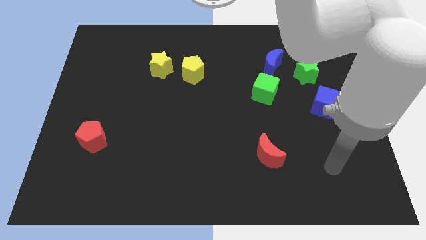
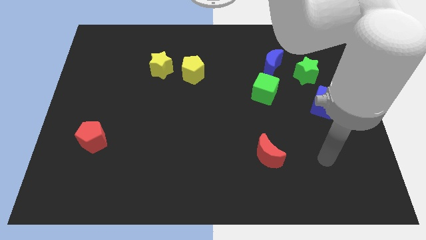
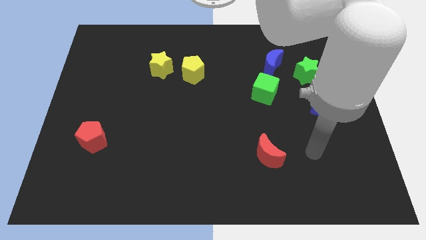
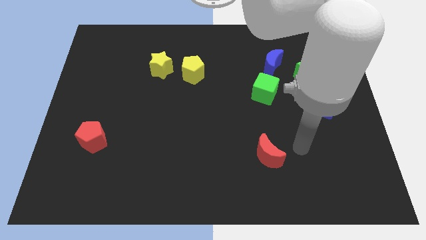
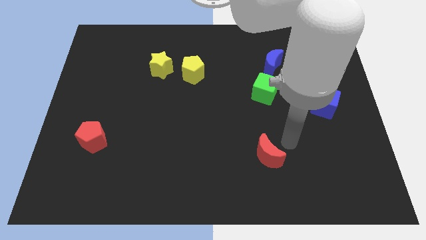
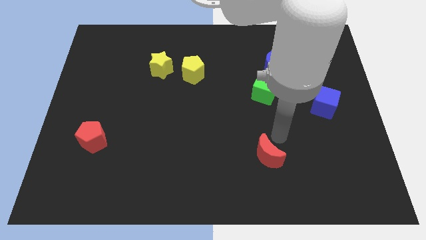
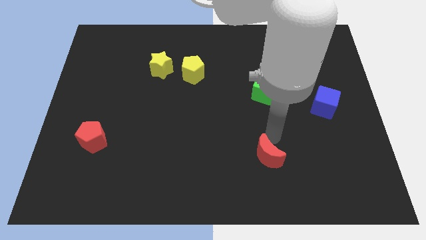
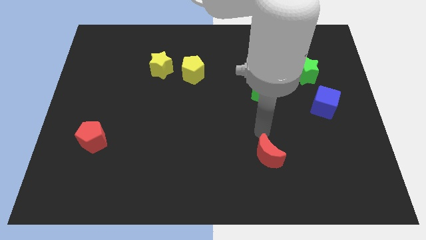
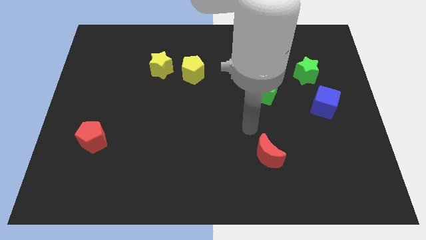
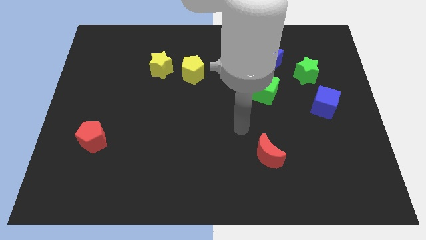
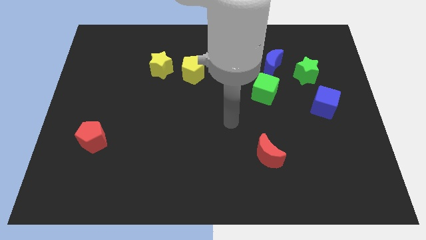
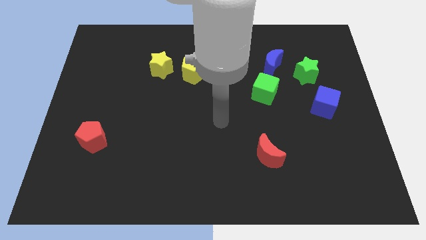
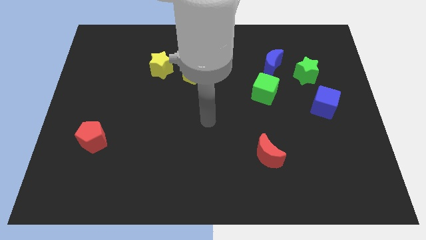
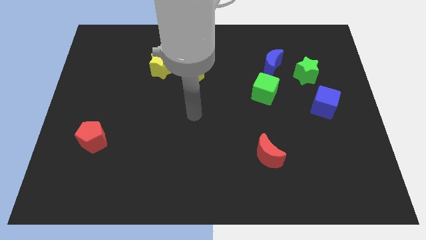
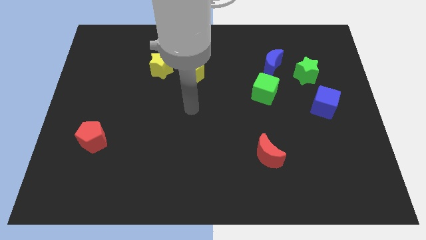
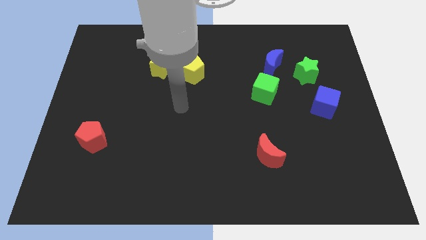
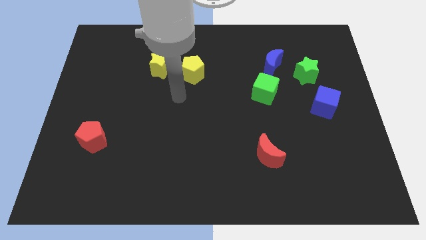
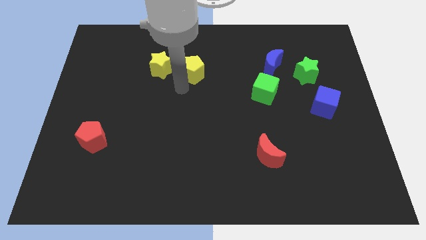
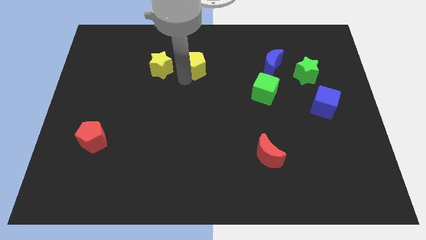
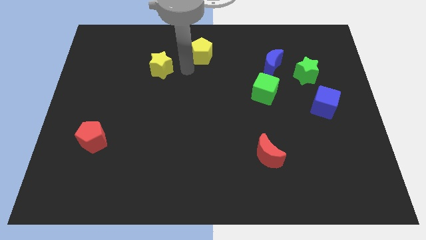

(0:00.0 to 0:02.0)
pull the yellow star apart from the yellow pentagon

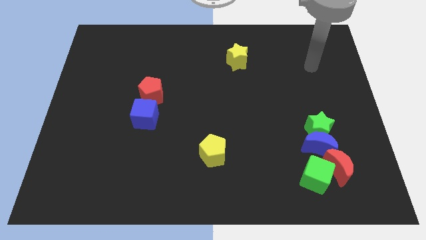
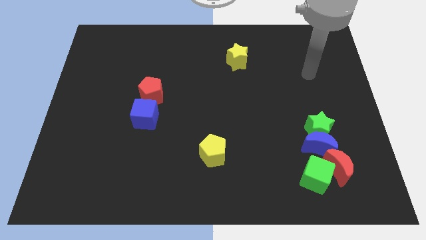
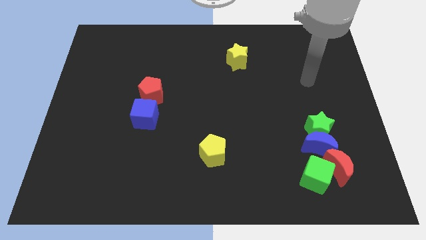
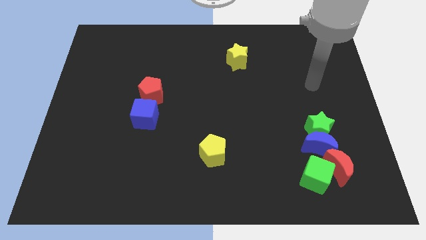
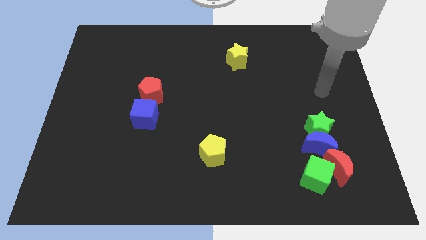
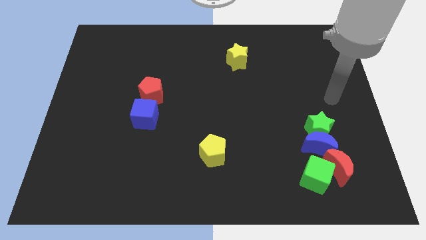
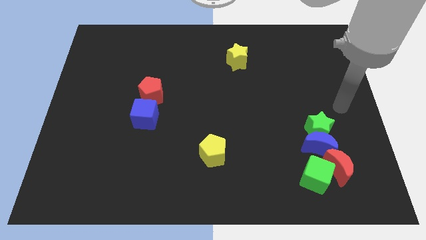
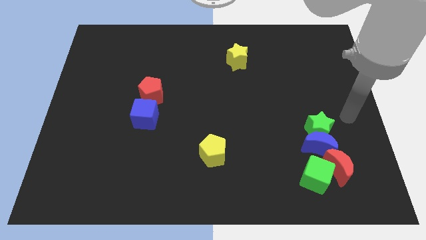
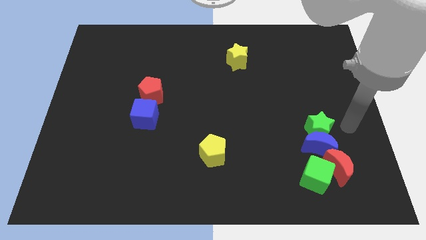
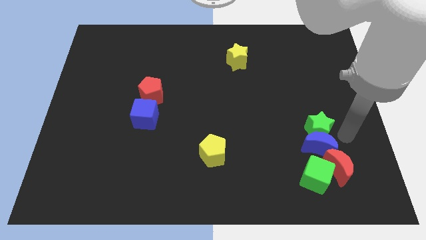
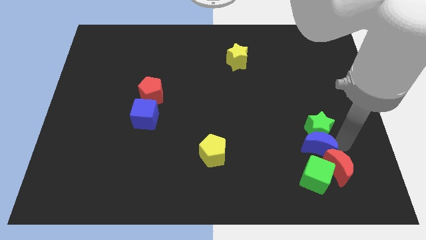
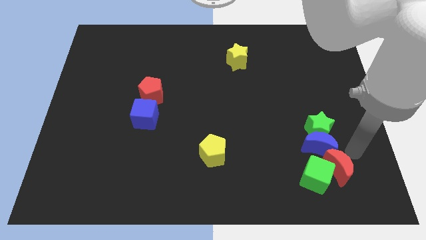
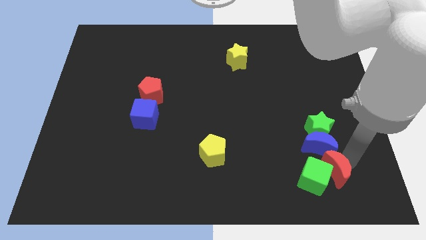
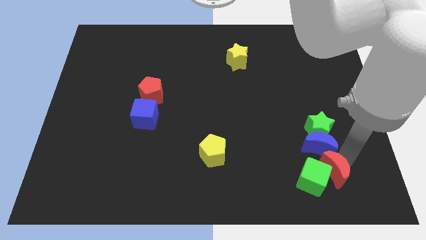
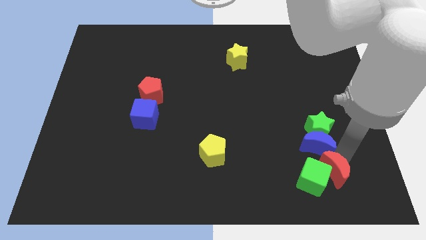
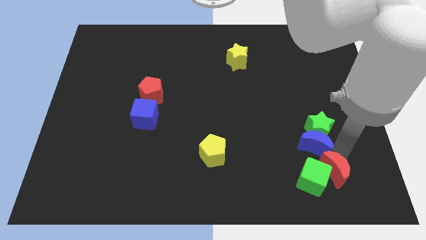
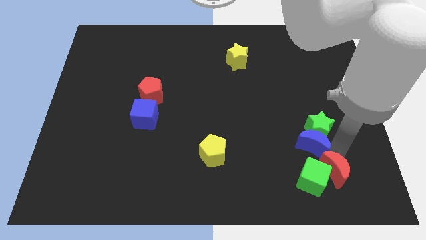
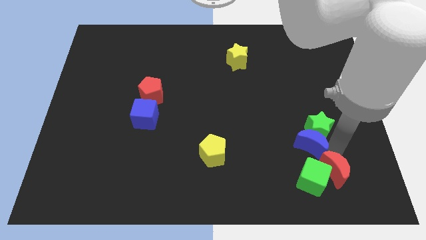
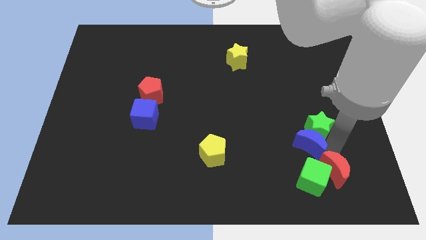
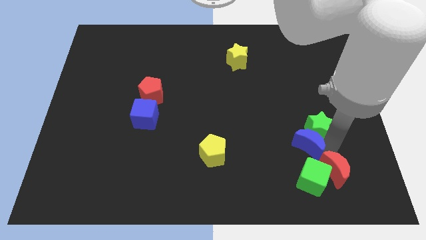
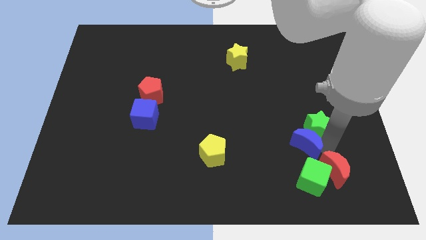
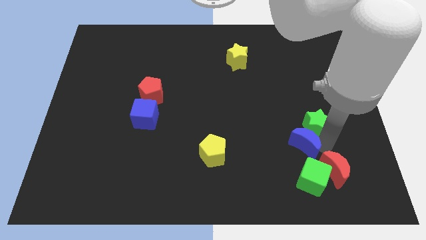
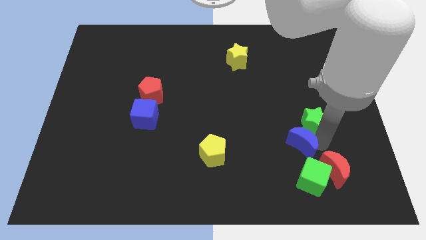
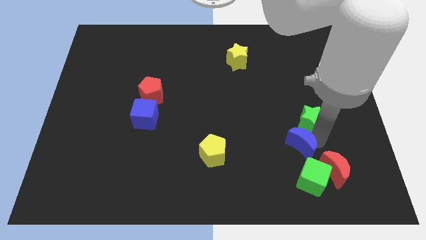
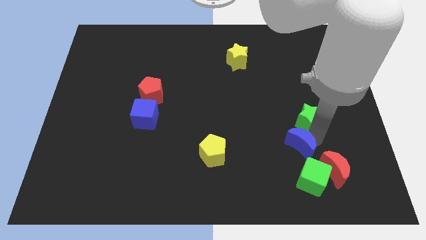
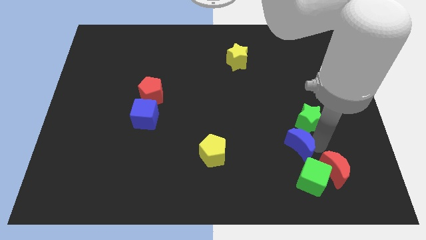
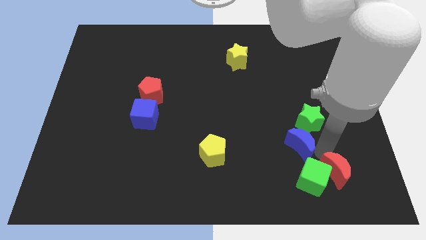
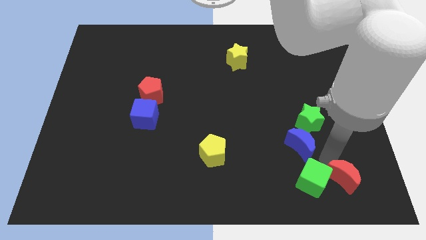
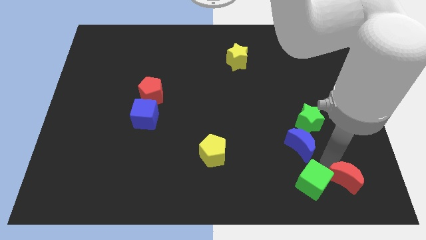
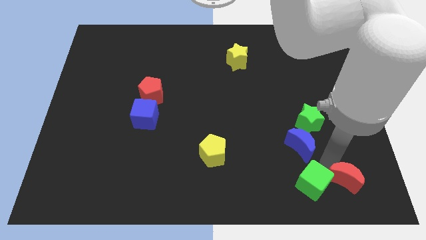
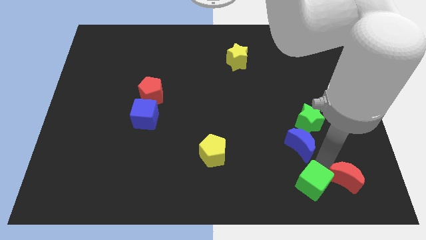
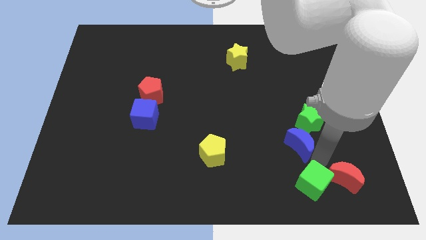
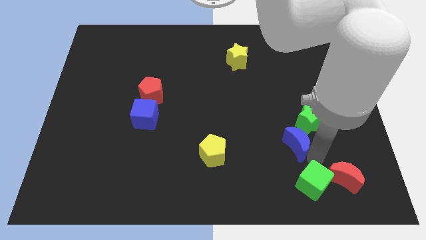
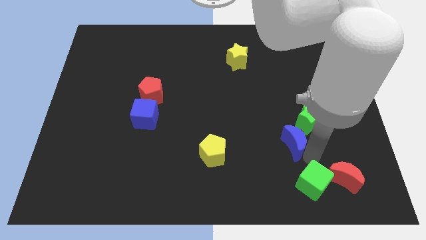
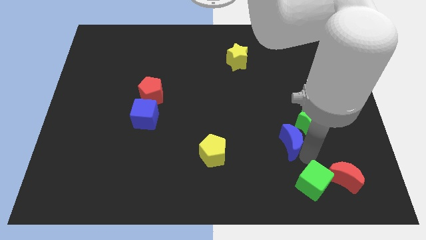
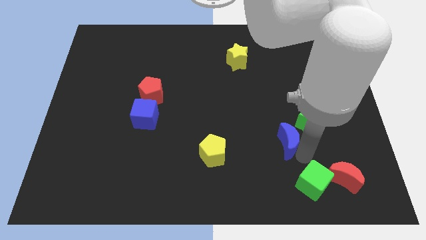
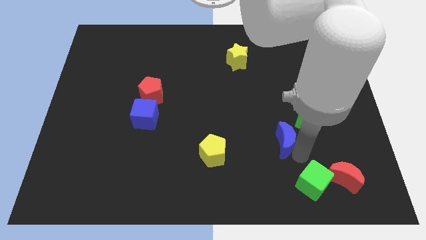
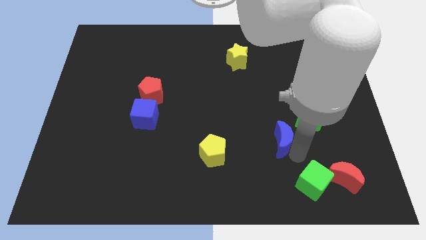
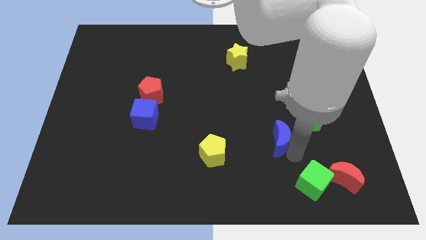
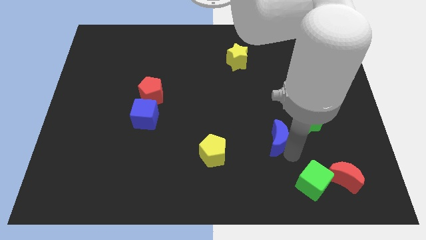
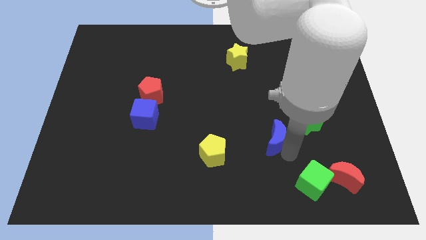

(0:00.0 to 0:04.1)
pull the blue moon apart from the green star, red moon, and green cube

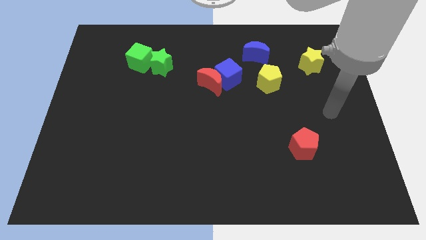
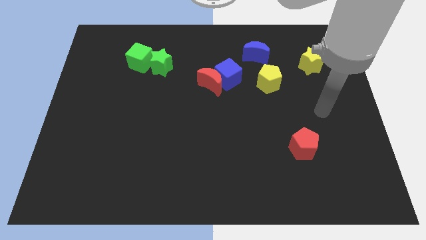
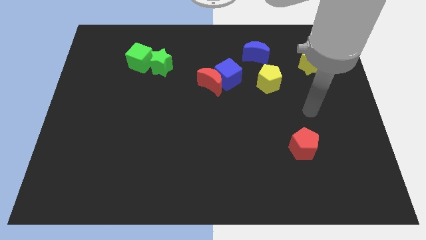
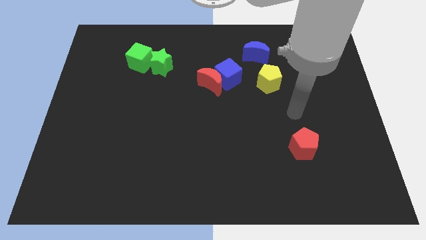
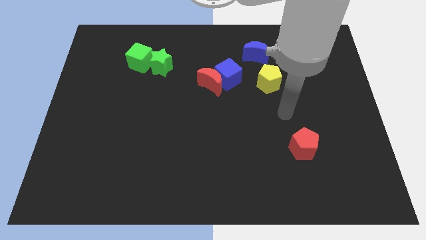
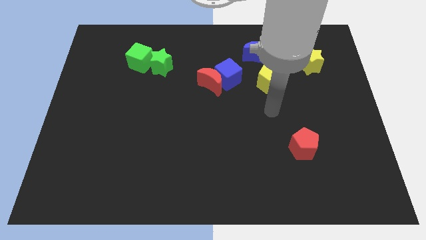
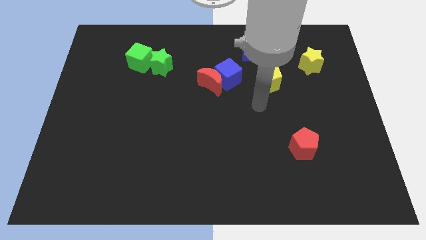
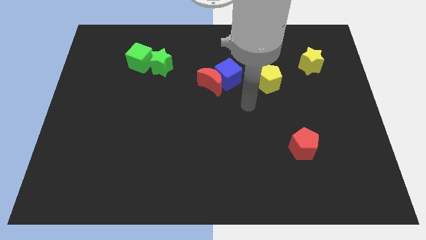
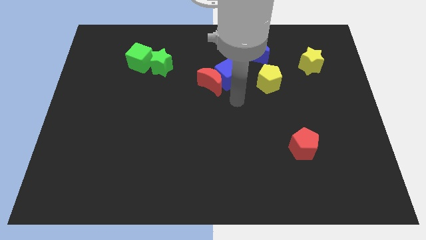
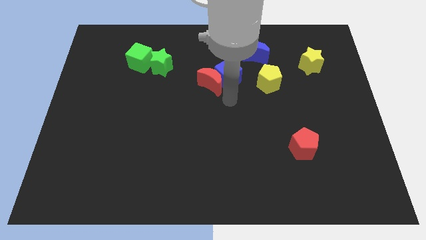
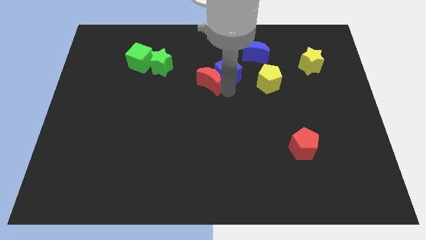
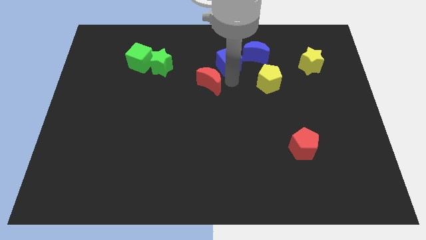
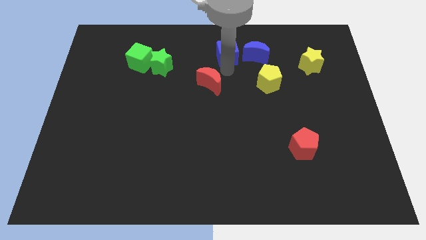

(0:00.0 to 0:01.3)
pull the red moon apart from the blue cube

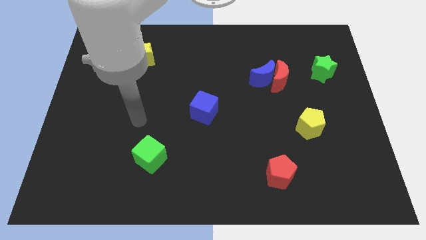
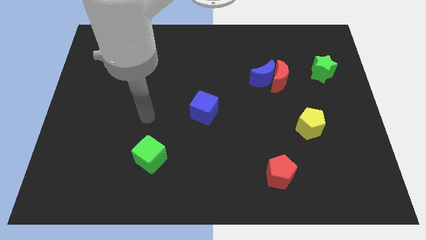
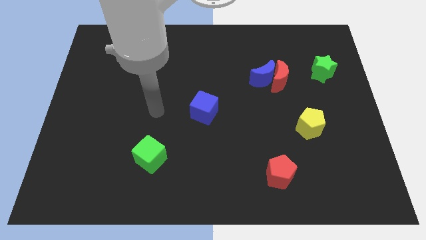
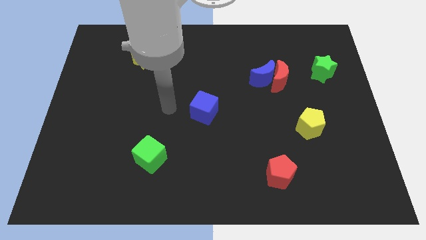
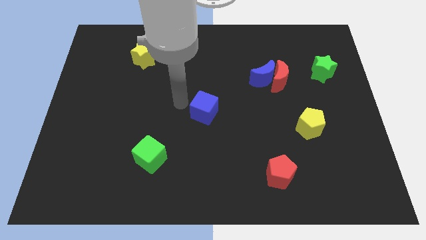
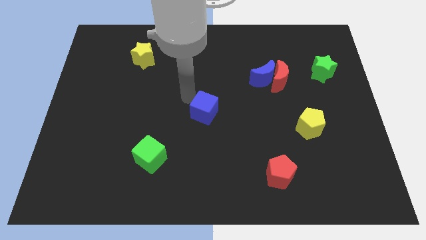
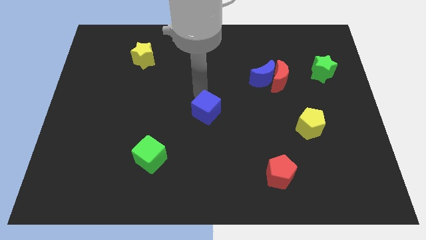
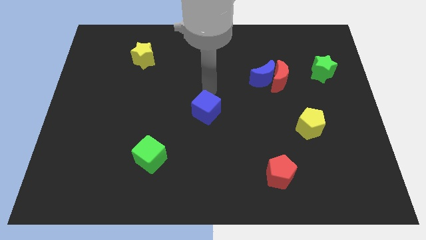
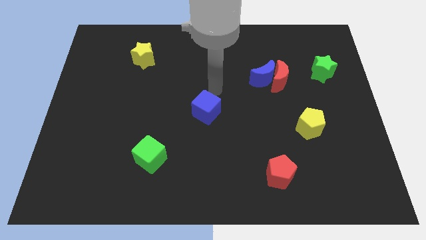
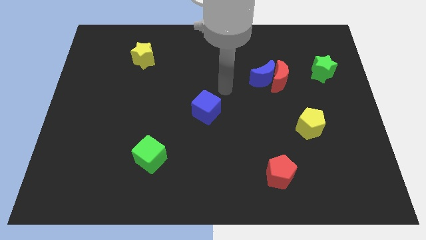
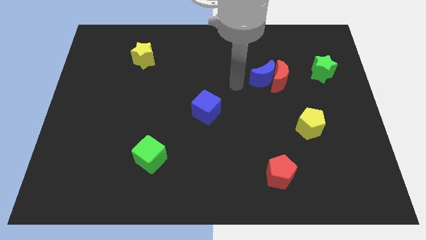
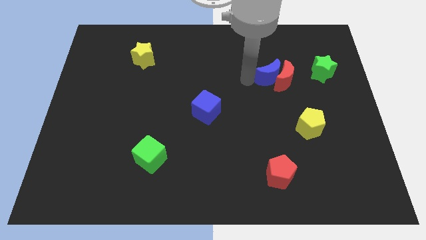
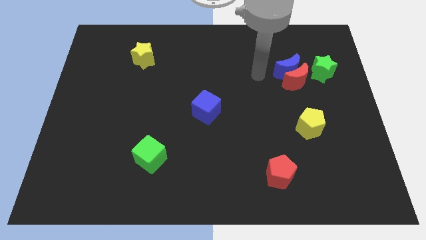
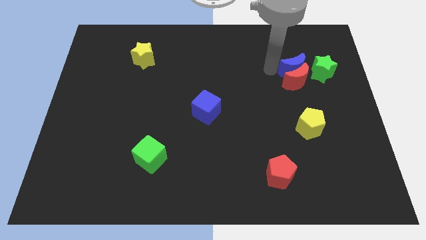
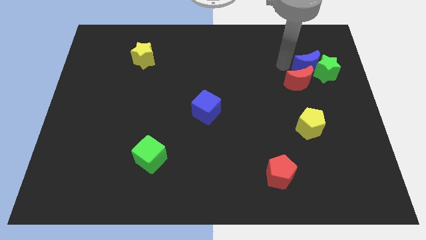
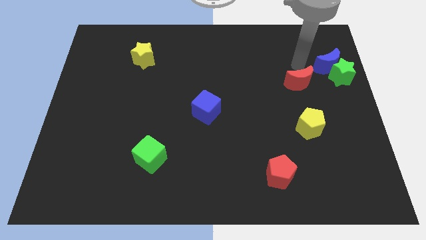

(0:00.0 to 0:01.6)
move the red moon away from the blue moon

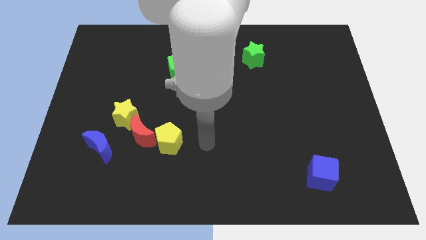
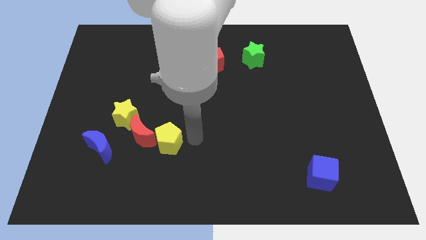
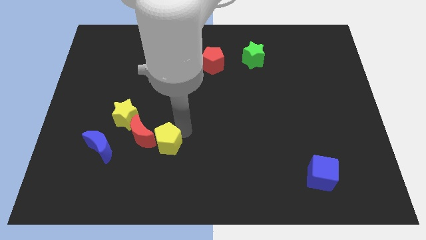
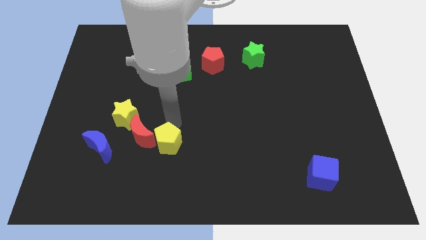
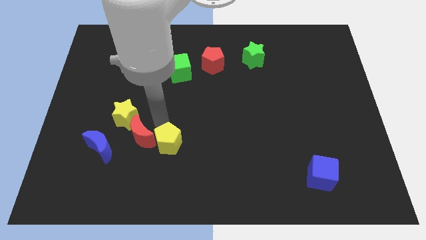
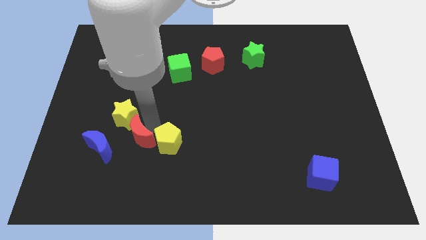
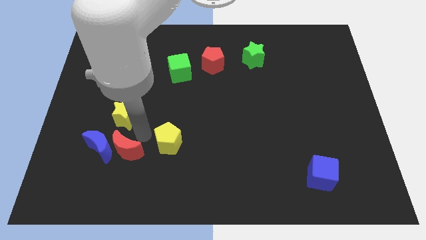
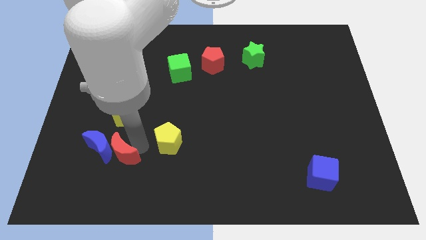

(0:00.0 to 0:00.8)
pull the yellow pentagon apart from the red moon
